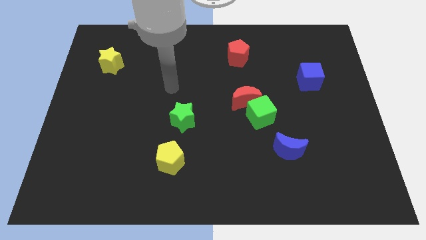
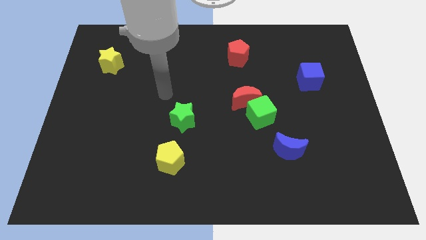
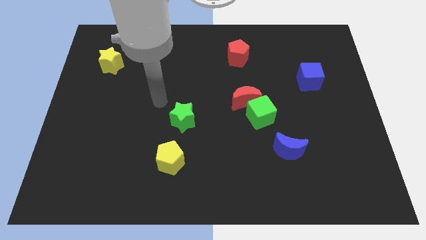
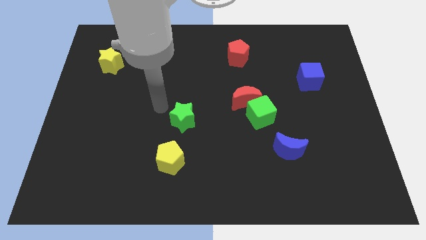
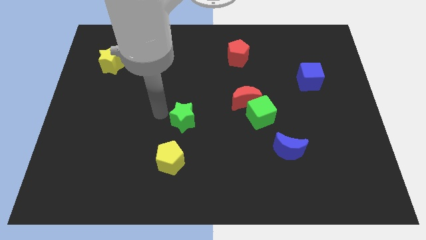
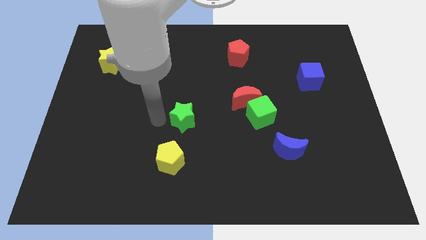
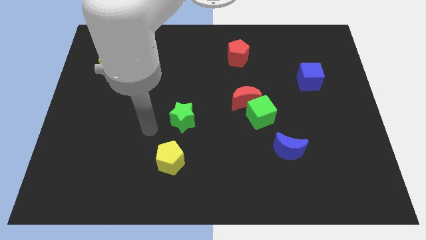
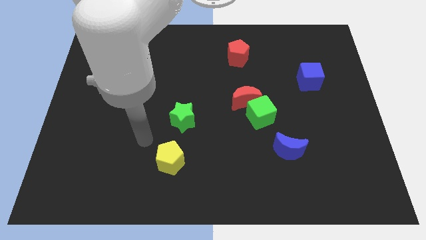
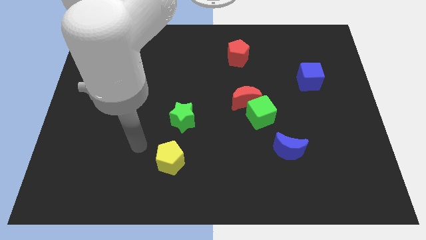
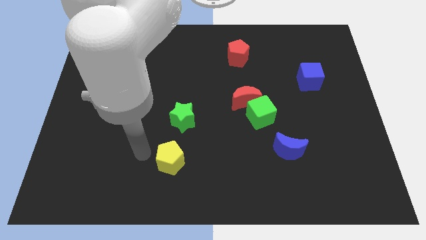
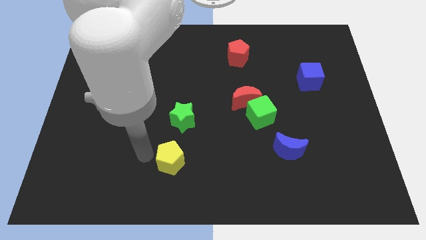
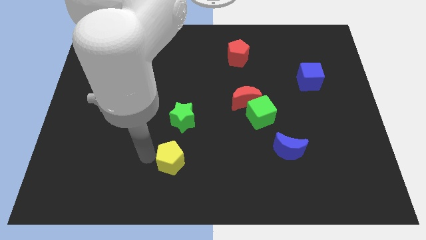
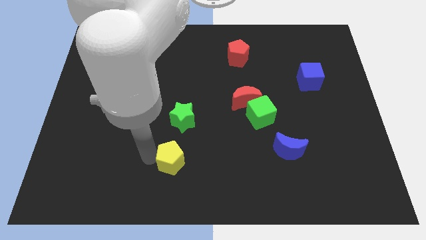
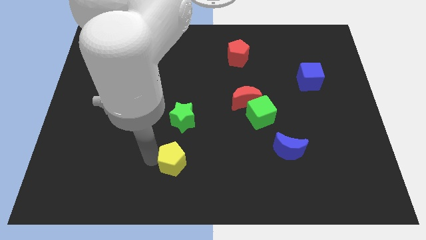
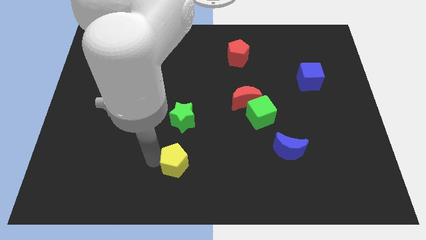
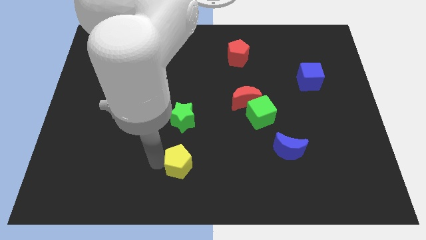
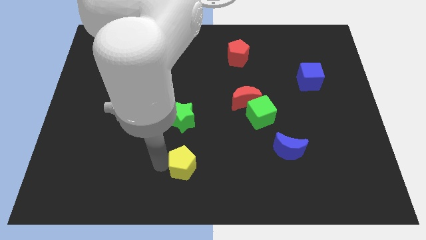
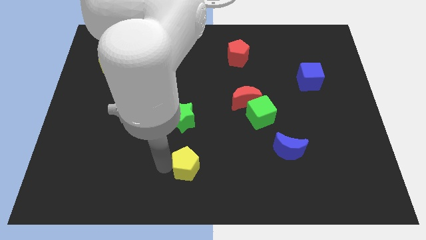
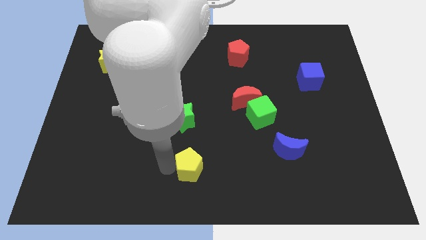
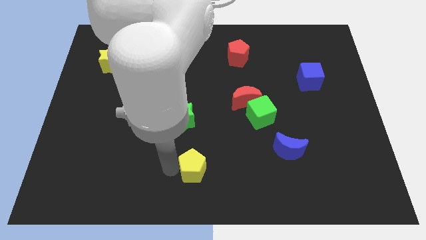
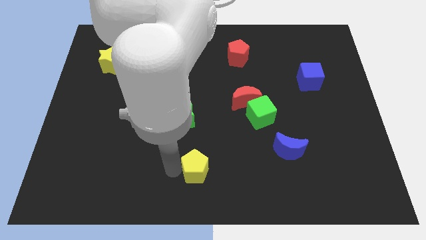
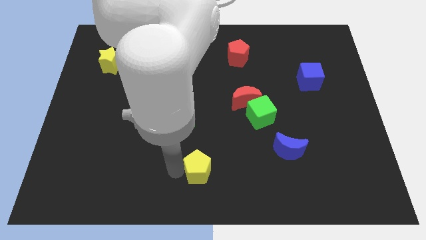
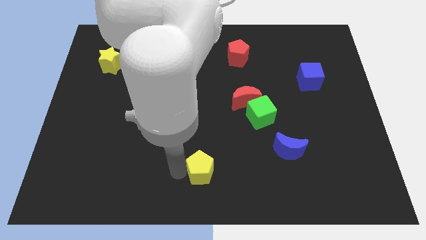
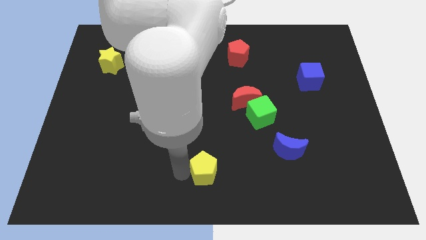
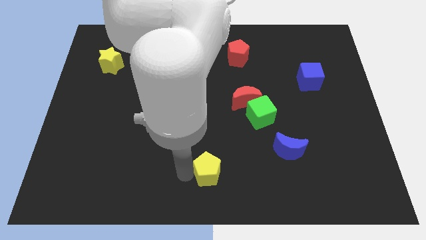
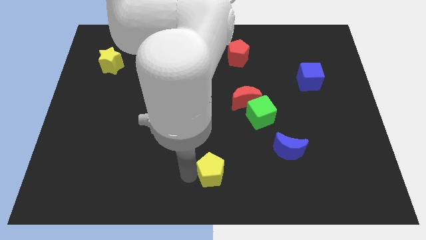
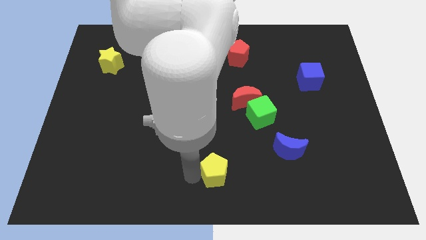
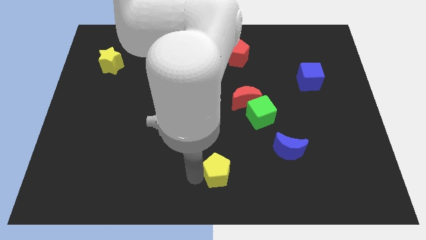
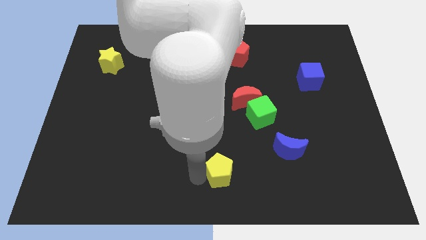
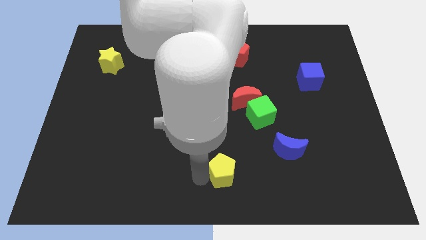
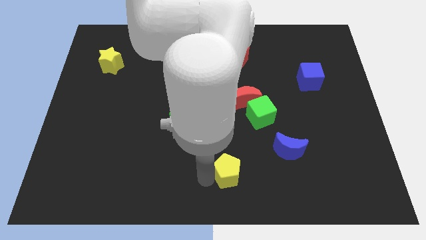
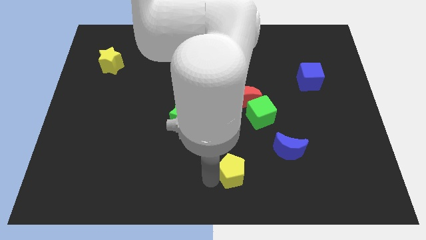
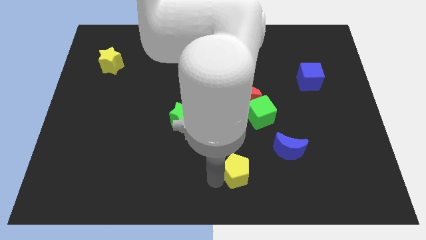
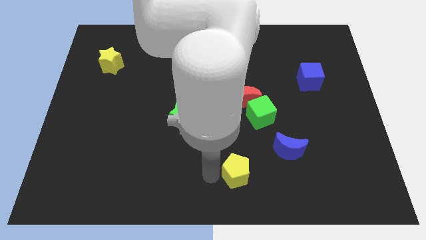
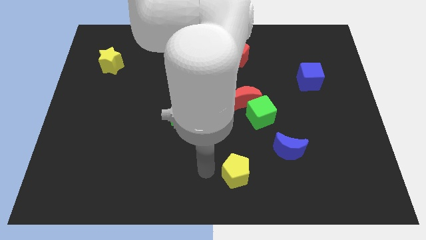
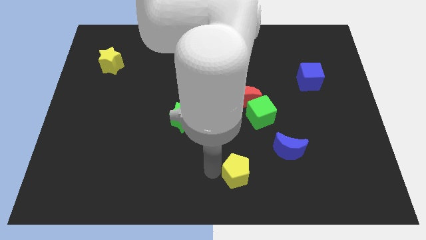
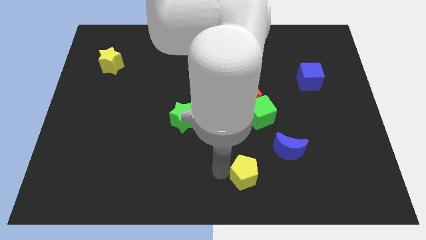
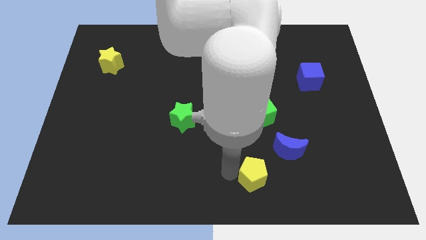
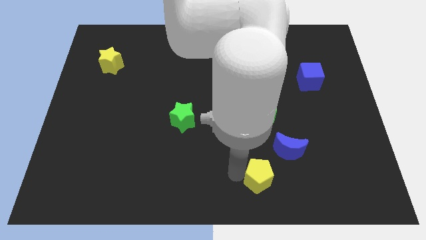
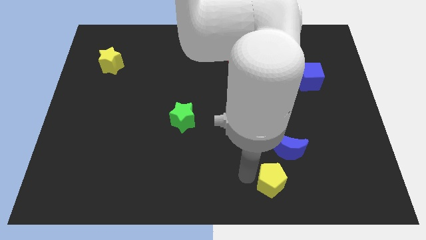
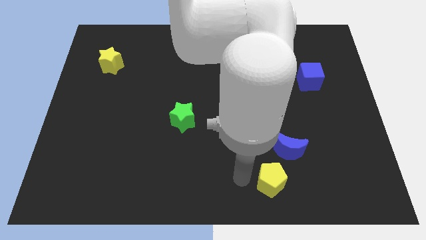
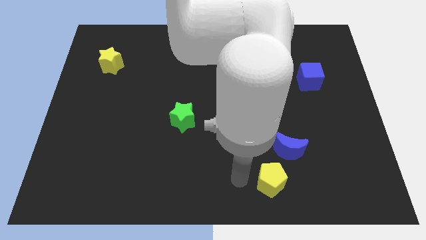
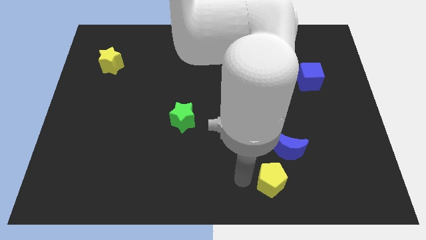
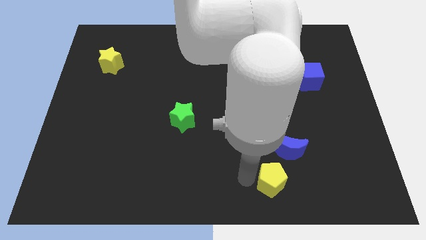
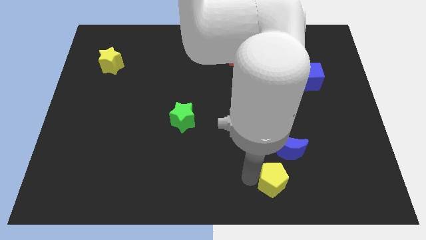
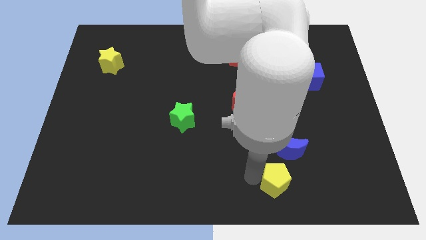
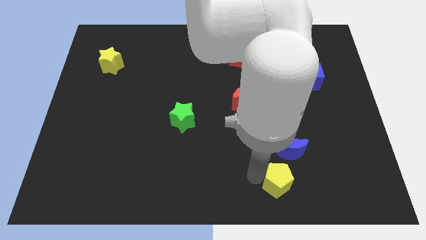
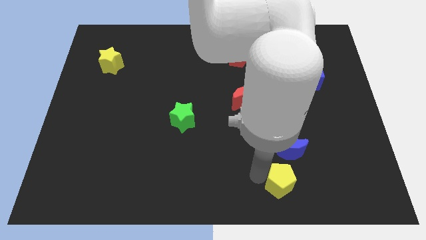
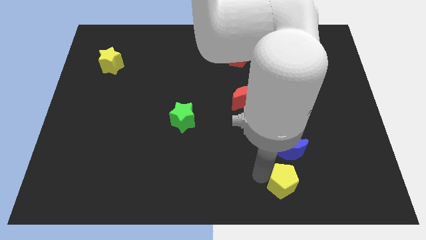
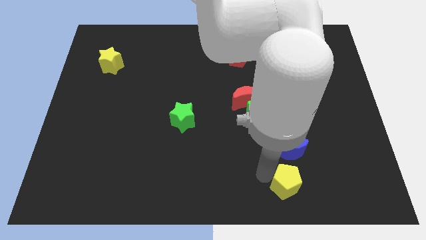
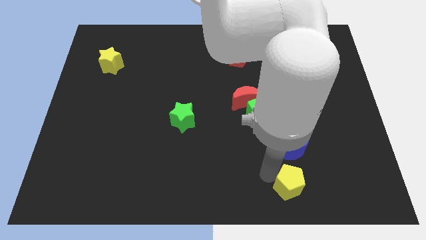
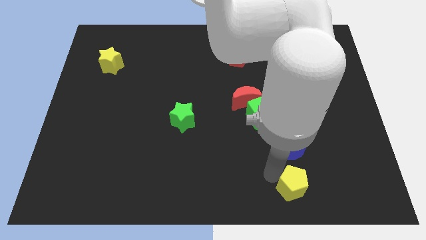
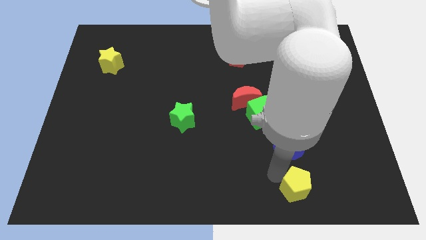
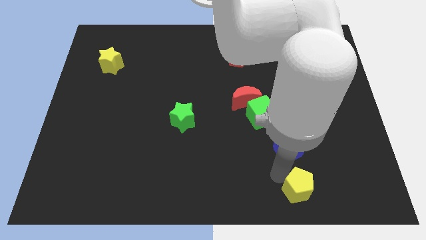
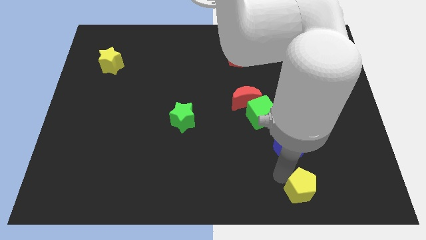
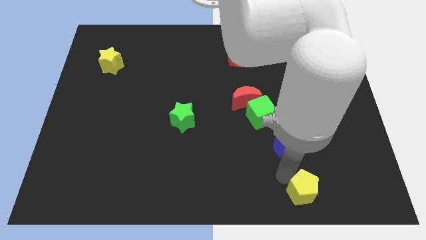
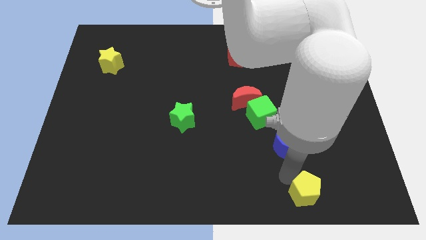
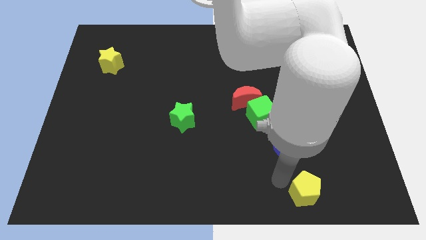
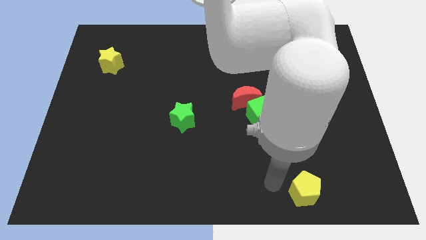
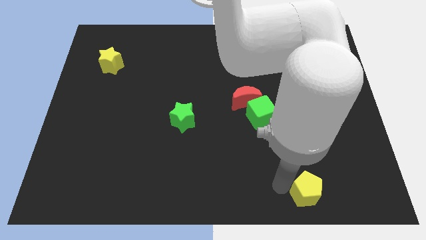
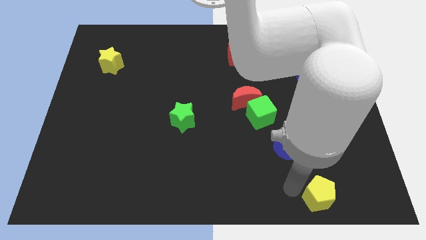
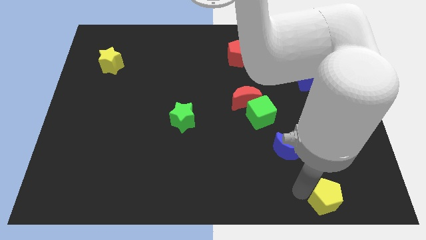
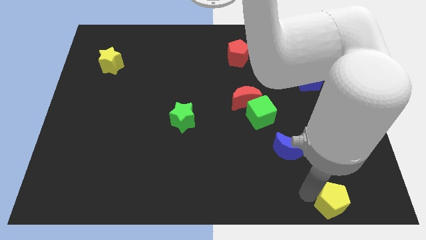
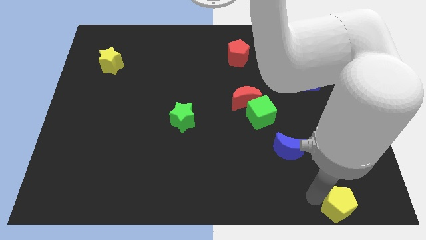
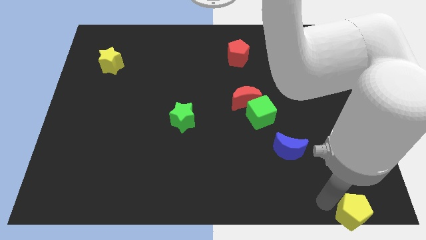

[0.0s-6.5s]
slide the yellow pentagon to the lower right corner

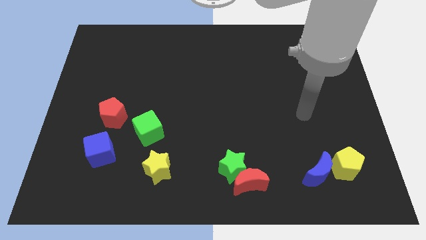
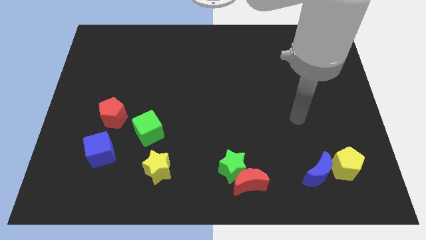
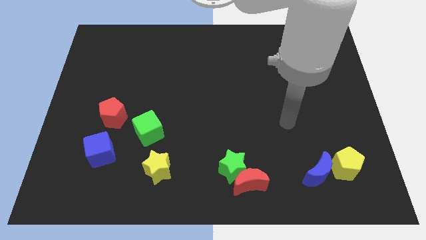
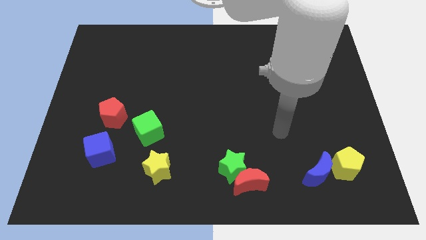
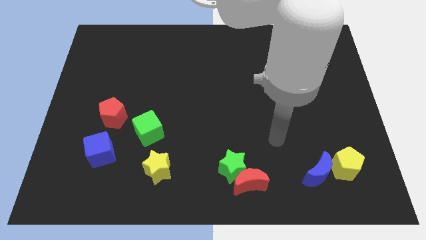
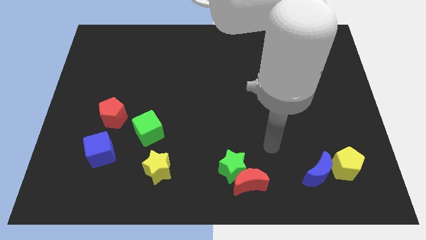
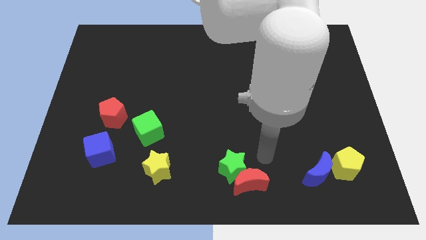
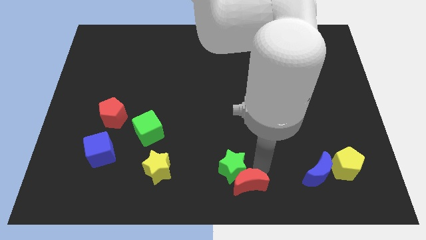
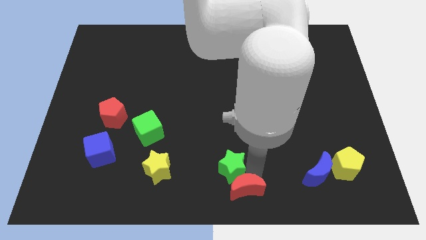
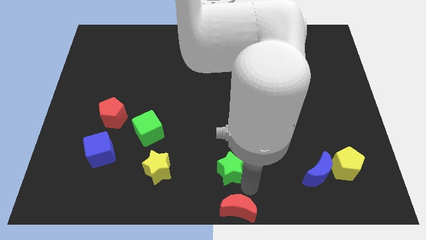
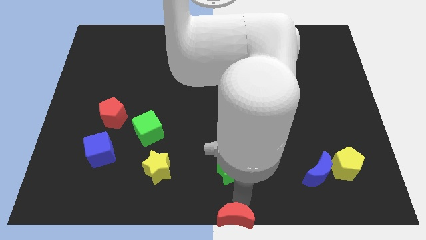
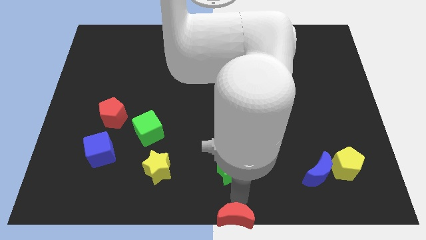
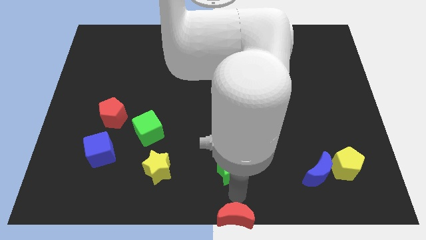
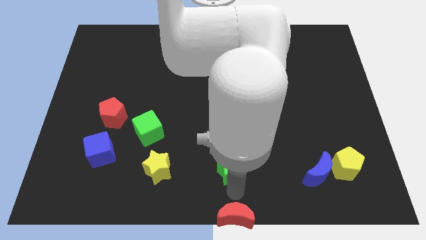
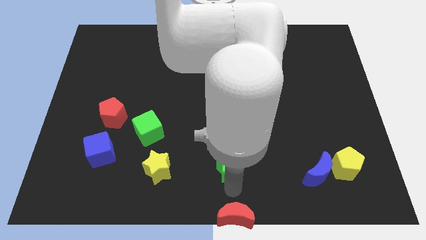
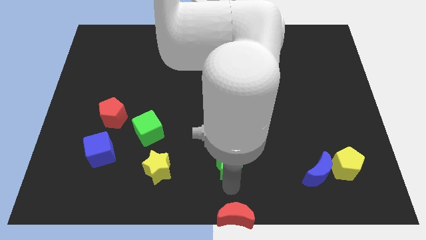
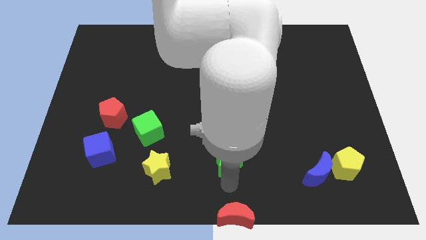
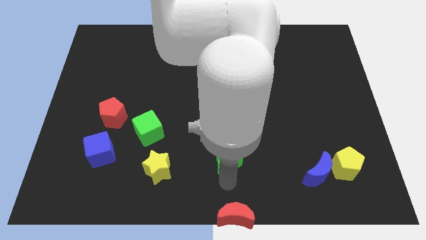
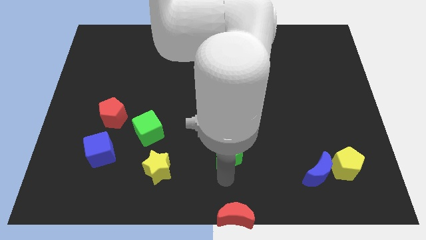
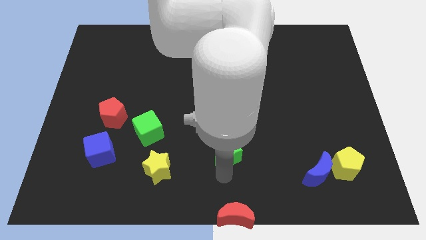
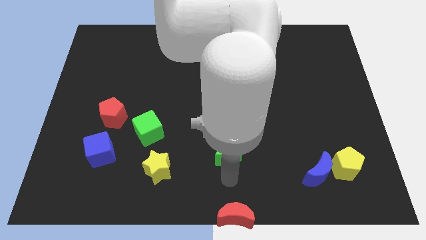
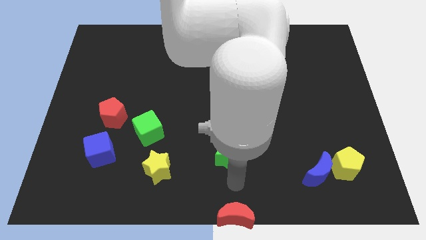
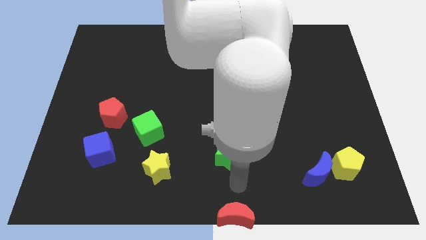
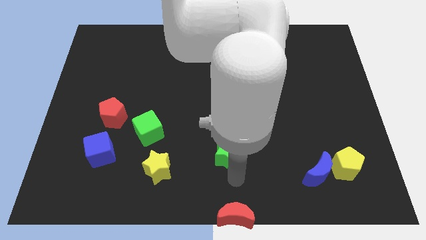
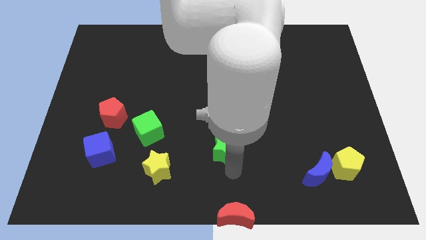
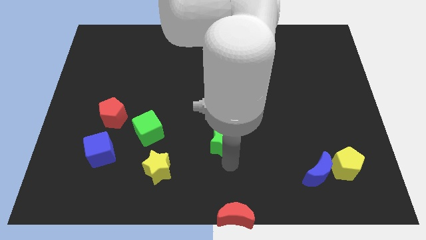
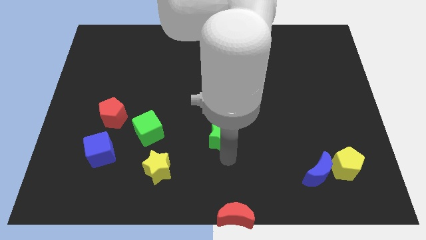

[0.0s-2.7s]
move the green star to the center
